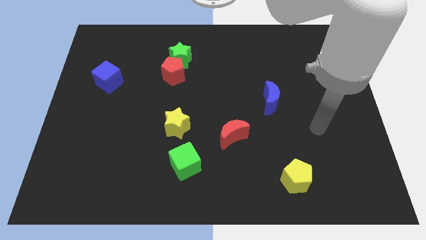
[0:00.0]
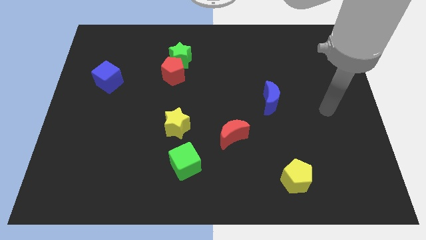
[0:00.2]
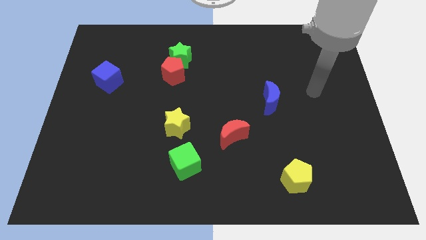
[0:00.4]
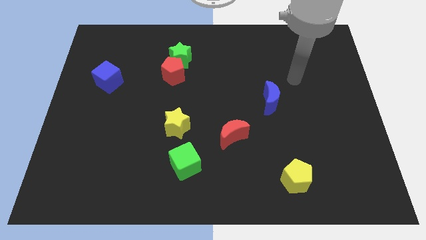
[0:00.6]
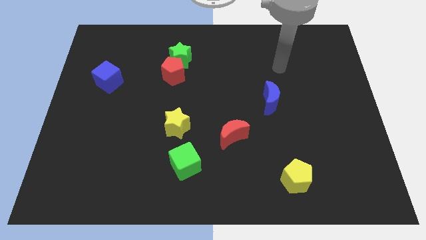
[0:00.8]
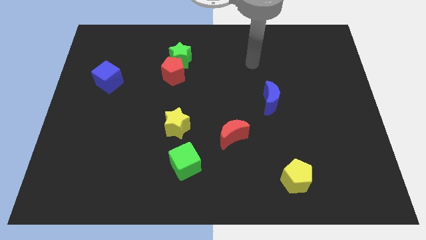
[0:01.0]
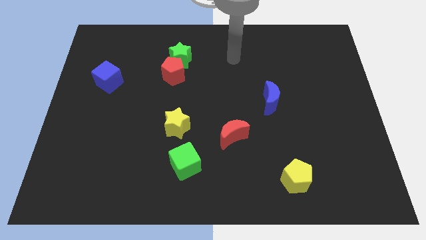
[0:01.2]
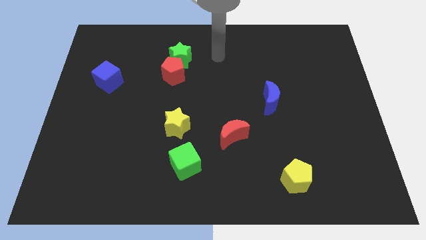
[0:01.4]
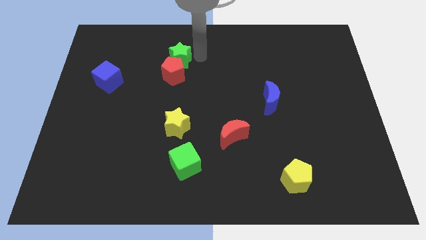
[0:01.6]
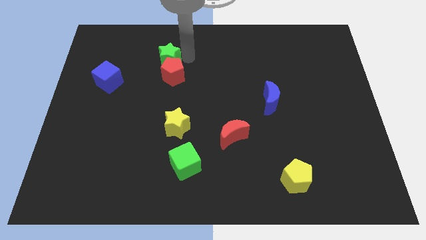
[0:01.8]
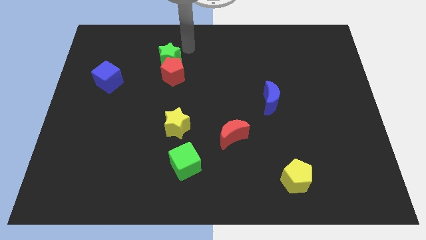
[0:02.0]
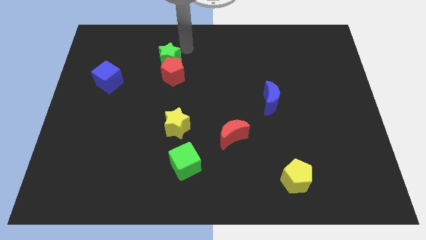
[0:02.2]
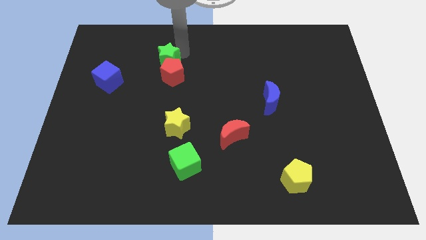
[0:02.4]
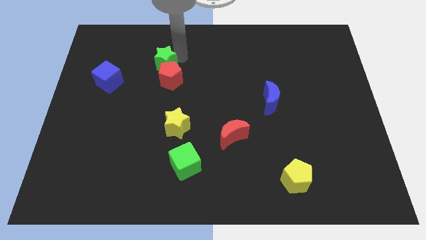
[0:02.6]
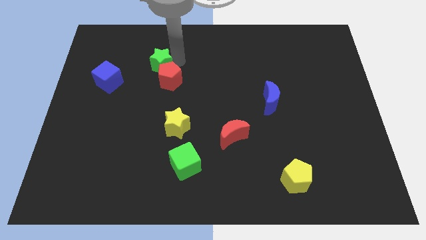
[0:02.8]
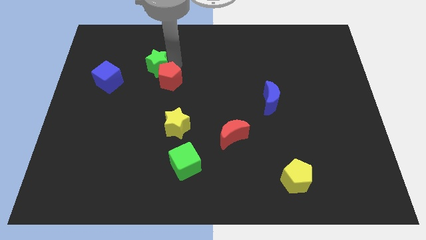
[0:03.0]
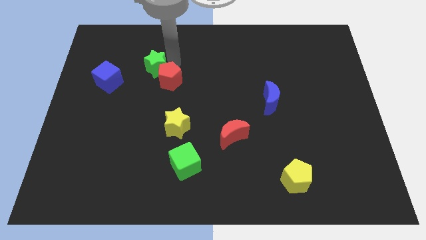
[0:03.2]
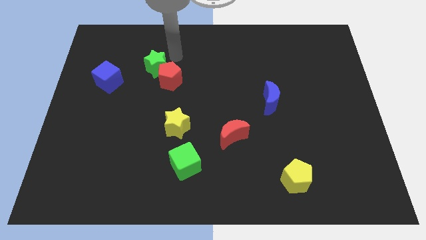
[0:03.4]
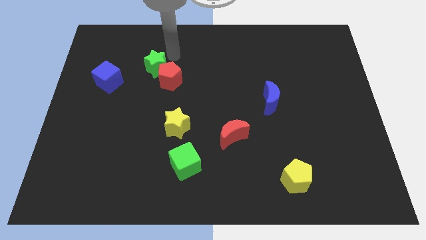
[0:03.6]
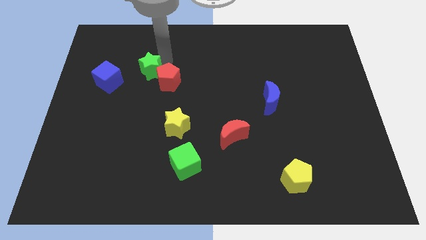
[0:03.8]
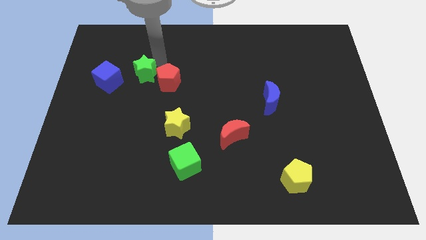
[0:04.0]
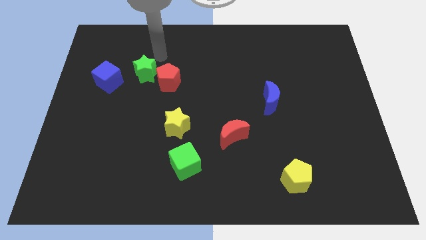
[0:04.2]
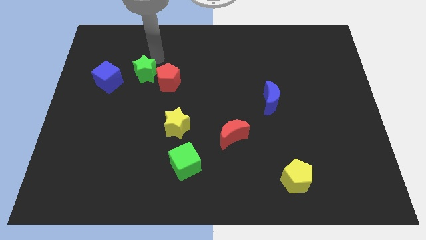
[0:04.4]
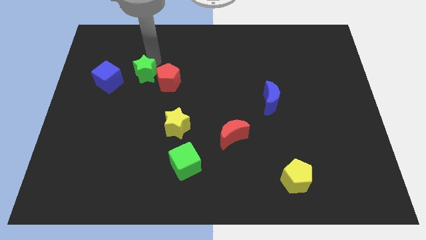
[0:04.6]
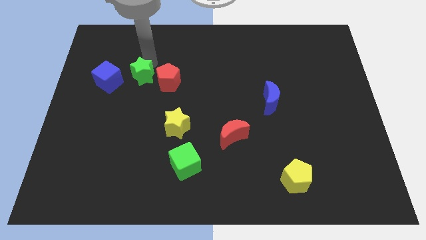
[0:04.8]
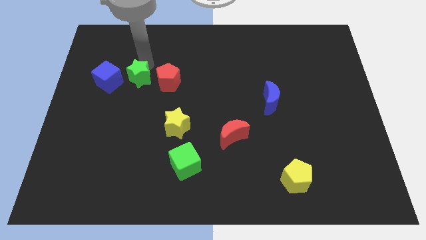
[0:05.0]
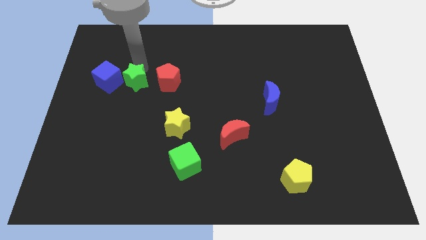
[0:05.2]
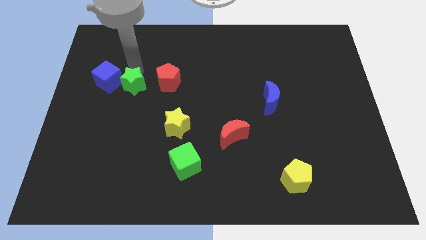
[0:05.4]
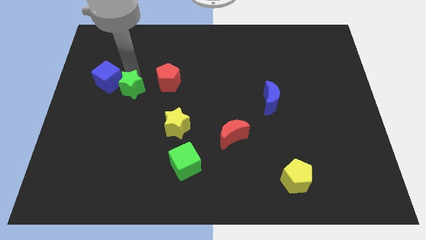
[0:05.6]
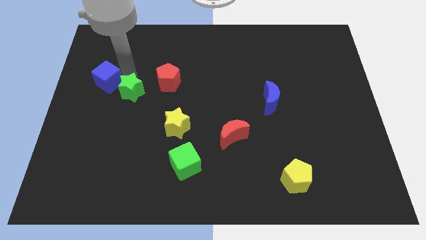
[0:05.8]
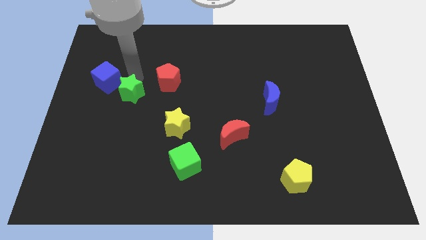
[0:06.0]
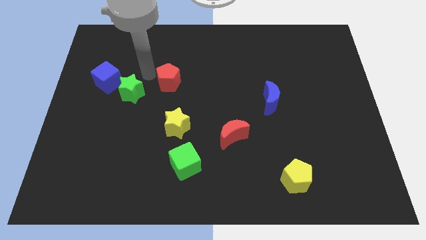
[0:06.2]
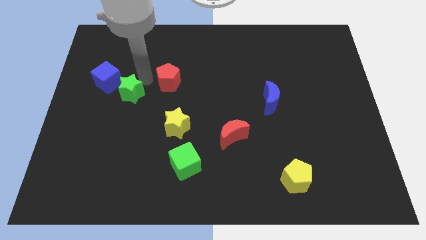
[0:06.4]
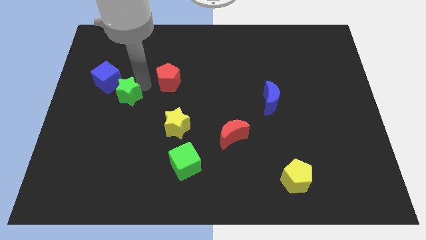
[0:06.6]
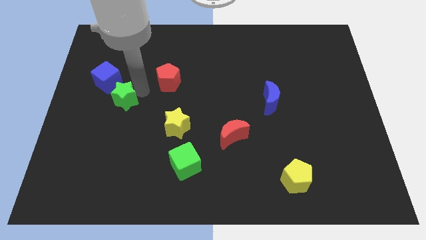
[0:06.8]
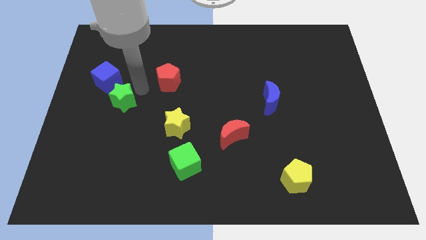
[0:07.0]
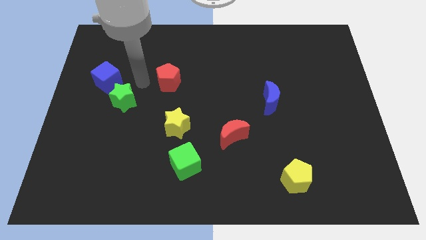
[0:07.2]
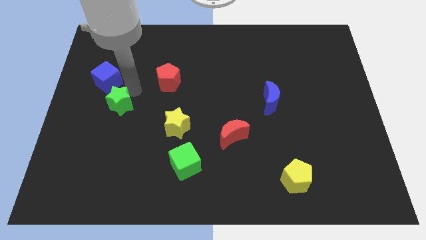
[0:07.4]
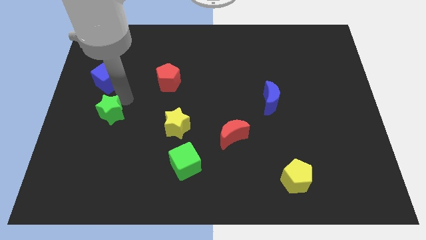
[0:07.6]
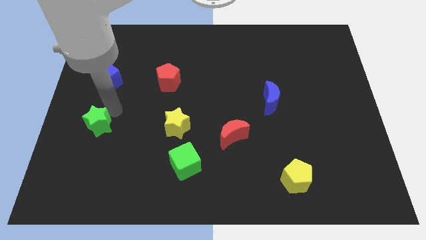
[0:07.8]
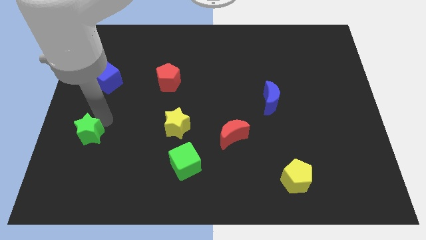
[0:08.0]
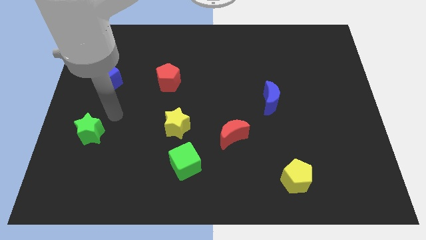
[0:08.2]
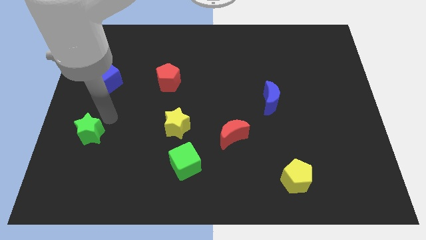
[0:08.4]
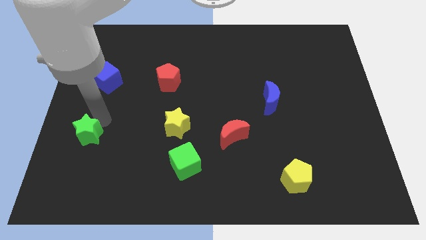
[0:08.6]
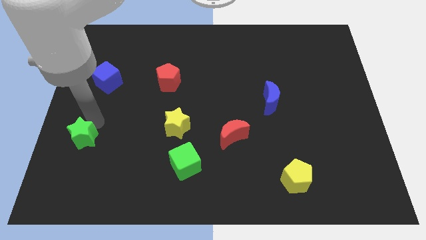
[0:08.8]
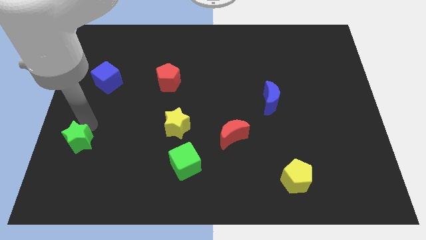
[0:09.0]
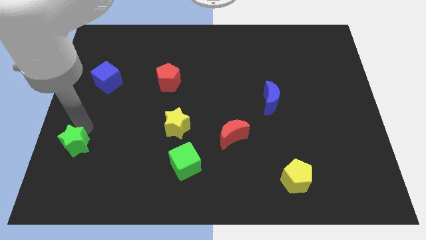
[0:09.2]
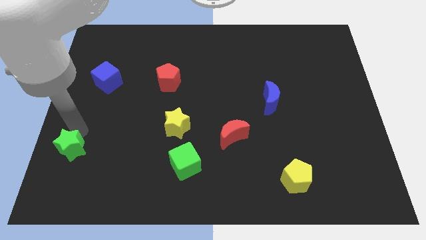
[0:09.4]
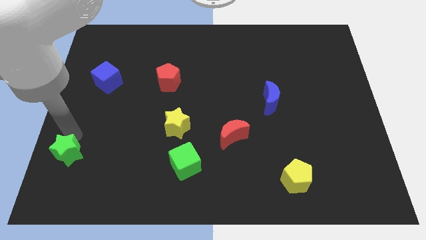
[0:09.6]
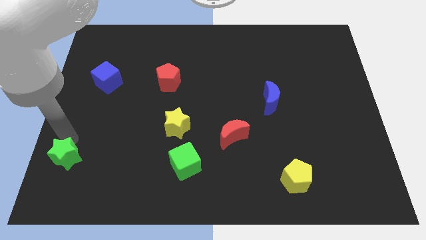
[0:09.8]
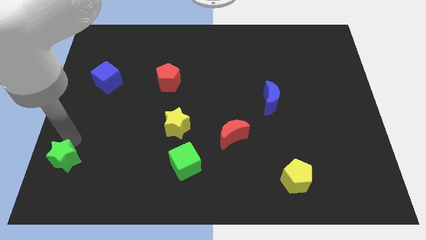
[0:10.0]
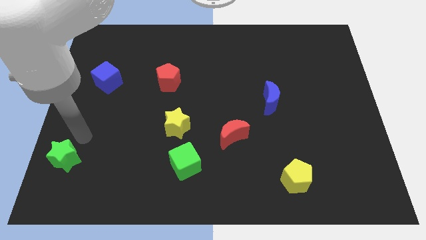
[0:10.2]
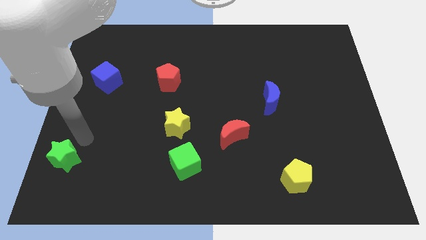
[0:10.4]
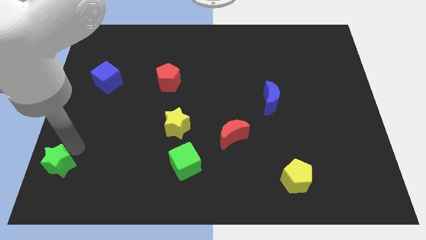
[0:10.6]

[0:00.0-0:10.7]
put the green star to the bottom left

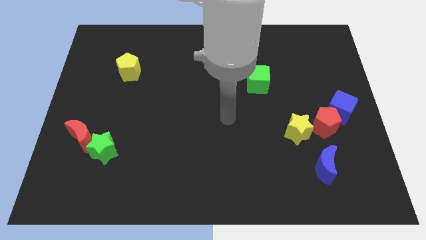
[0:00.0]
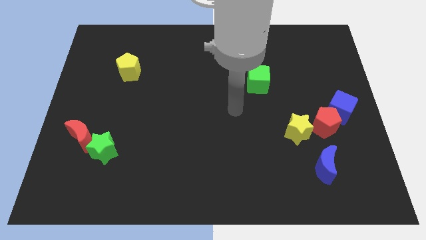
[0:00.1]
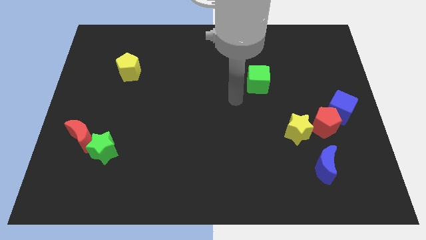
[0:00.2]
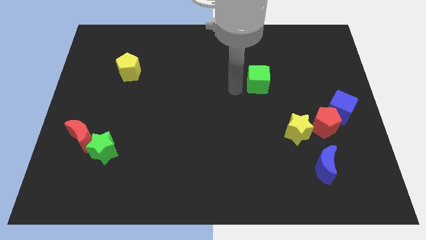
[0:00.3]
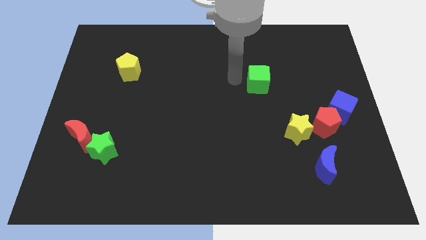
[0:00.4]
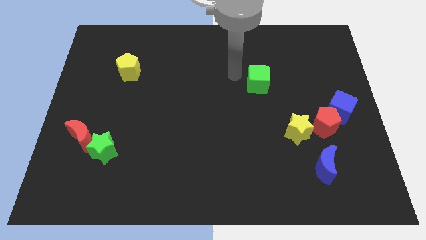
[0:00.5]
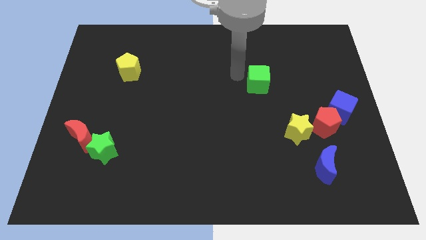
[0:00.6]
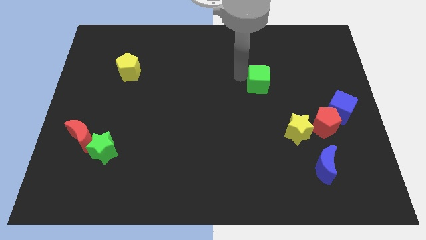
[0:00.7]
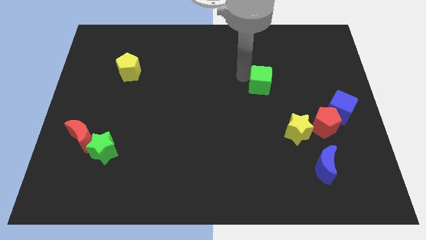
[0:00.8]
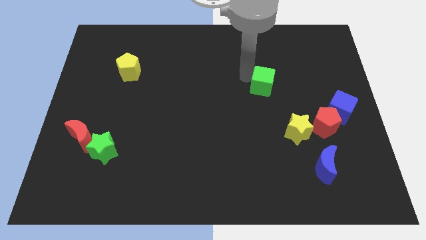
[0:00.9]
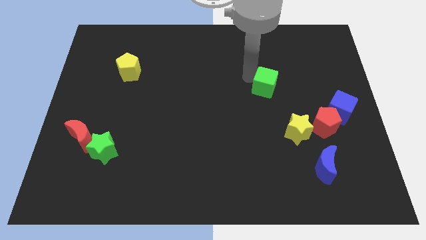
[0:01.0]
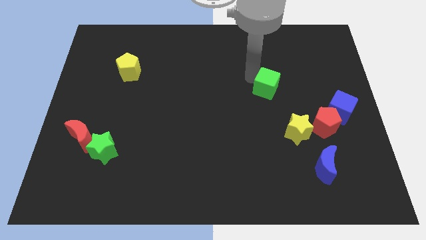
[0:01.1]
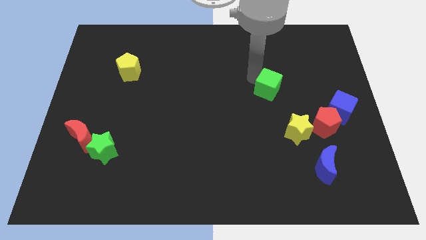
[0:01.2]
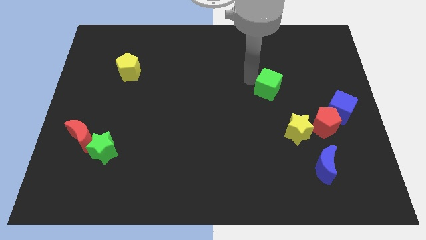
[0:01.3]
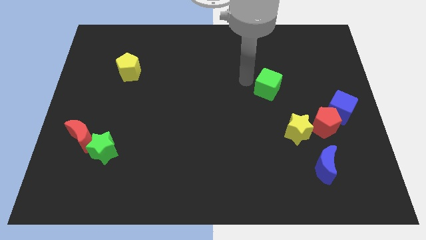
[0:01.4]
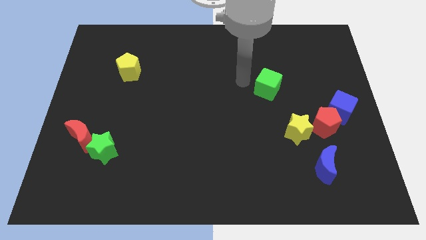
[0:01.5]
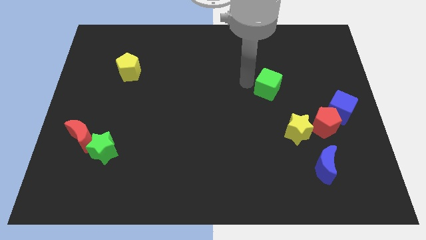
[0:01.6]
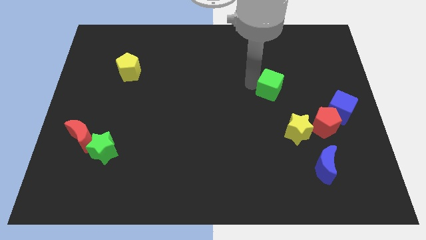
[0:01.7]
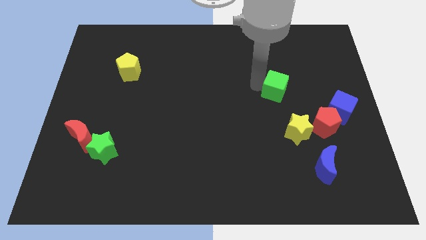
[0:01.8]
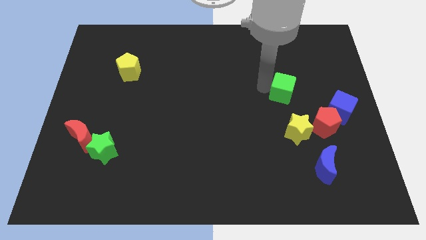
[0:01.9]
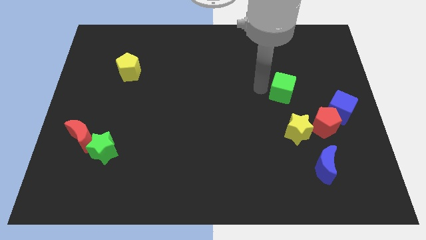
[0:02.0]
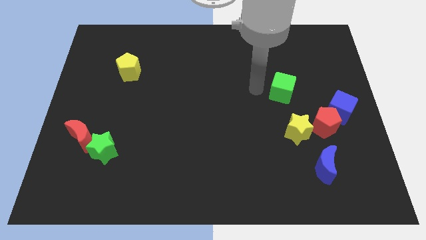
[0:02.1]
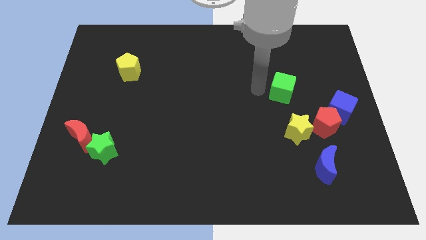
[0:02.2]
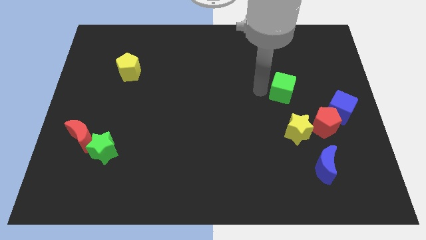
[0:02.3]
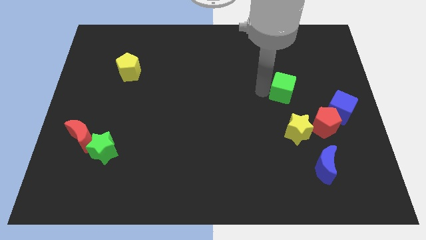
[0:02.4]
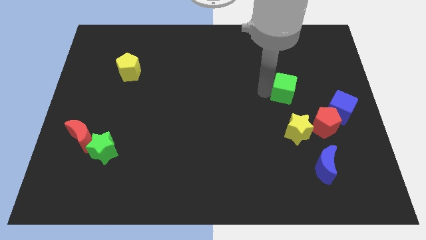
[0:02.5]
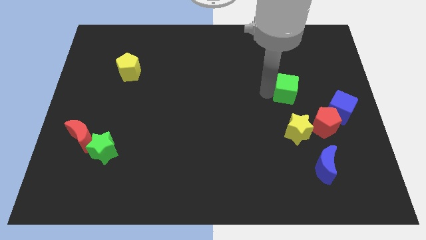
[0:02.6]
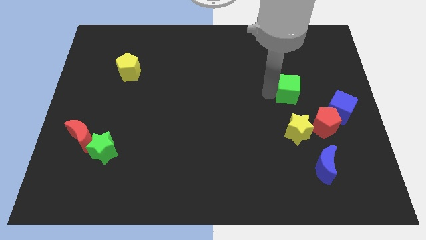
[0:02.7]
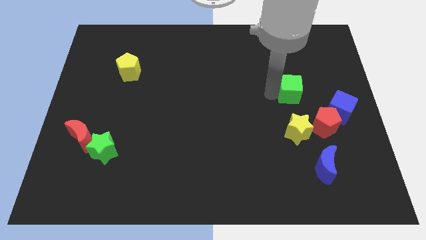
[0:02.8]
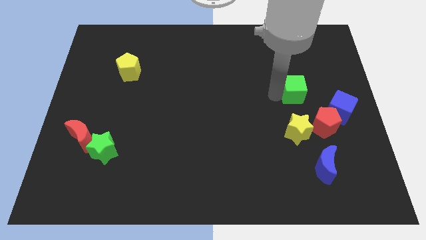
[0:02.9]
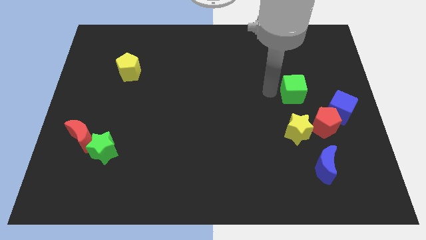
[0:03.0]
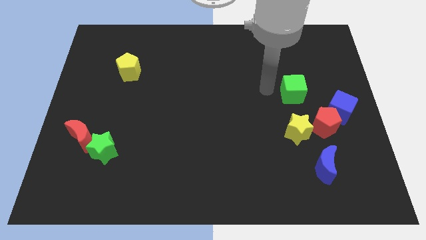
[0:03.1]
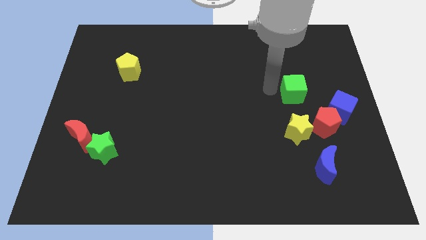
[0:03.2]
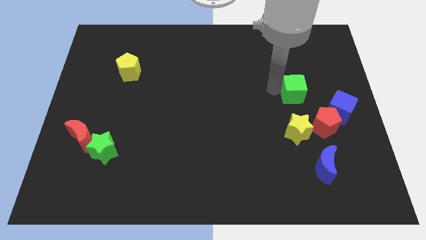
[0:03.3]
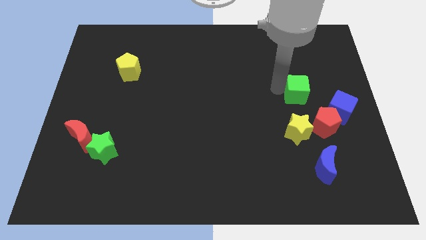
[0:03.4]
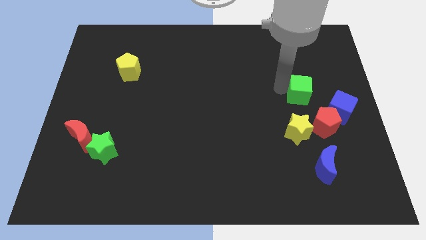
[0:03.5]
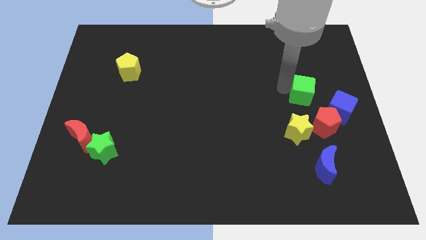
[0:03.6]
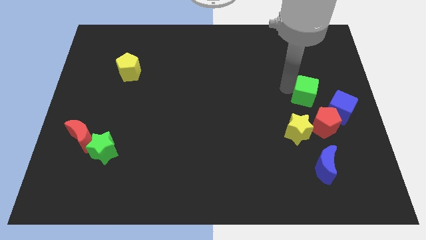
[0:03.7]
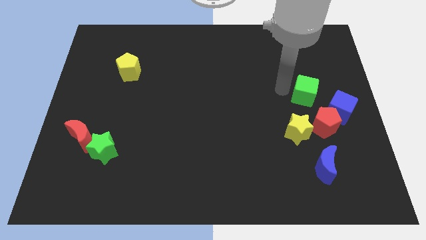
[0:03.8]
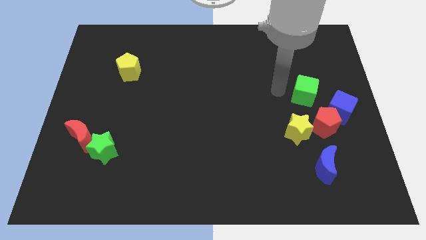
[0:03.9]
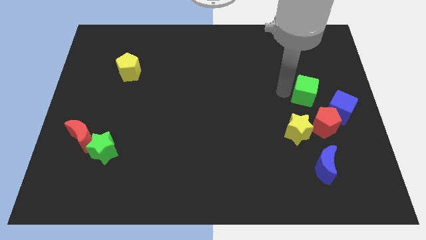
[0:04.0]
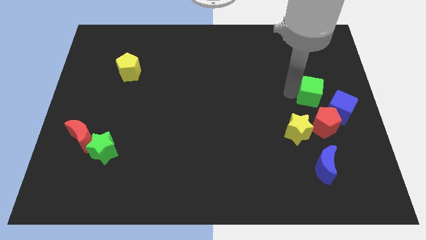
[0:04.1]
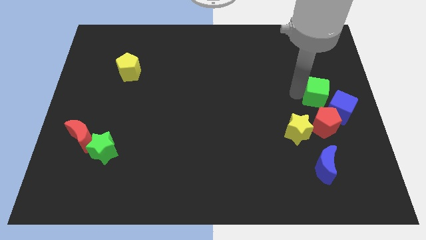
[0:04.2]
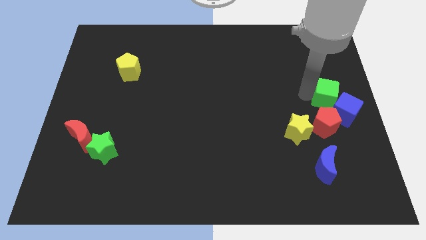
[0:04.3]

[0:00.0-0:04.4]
slide the green cube to the right side
